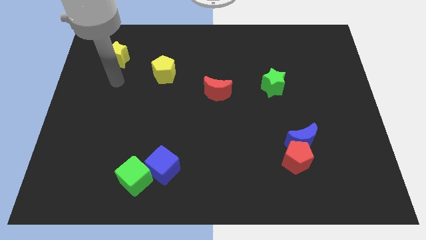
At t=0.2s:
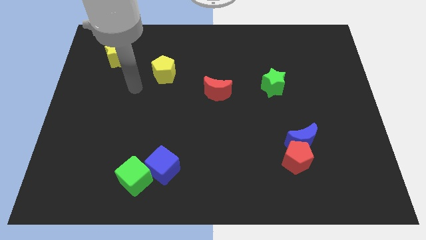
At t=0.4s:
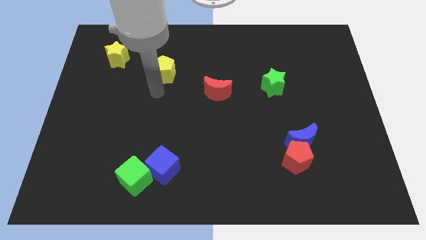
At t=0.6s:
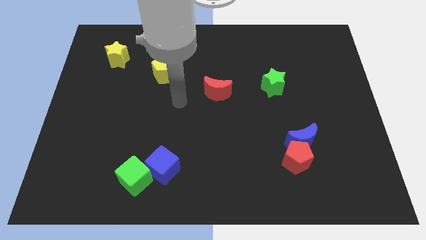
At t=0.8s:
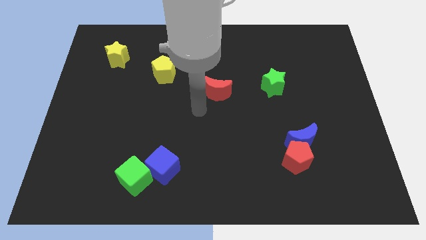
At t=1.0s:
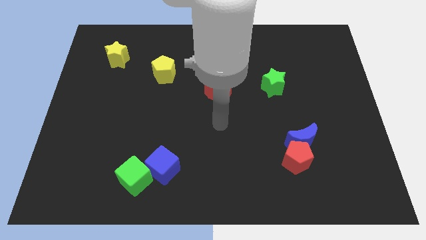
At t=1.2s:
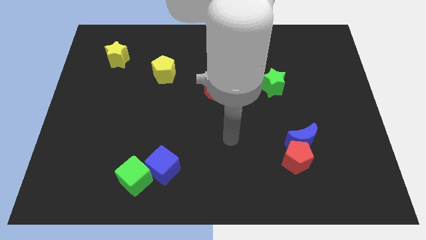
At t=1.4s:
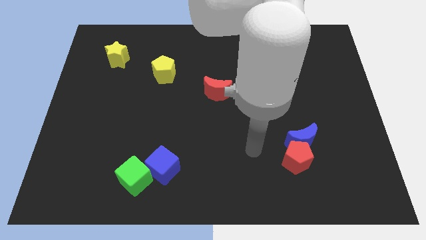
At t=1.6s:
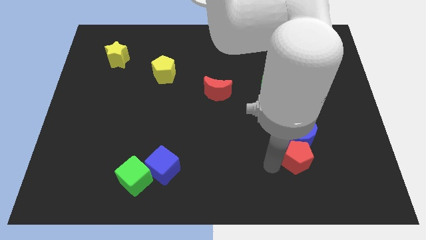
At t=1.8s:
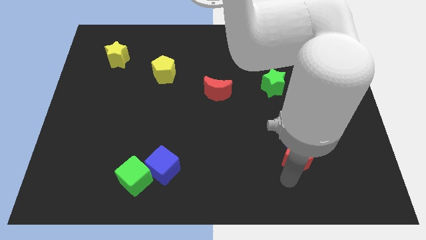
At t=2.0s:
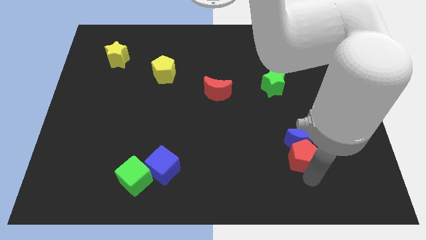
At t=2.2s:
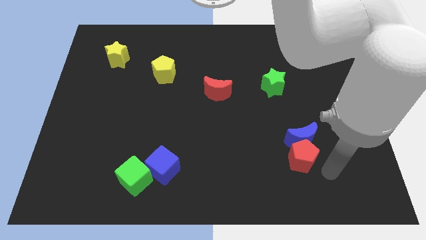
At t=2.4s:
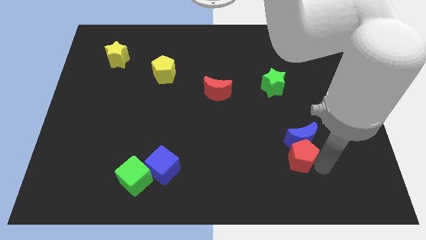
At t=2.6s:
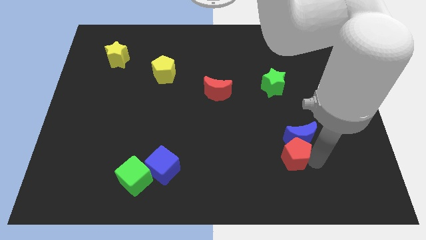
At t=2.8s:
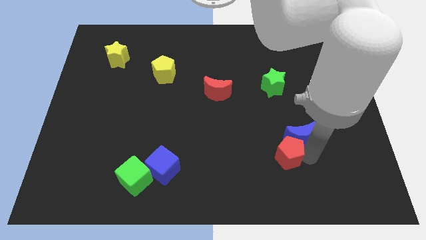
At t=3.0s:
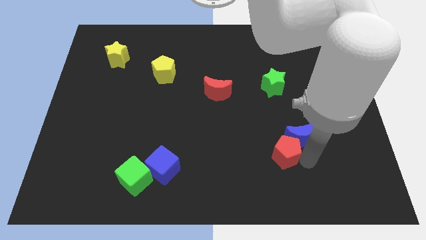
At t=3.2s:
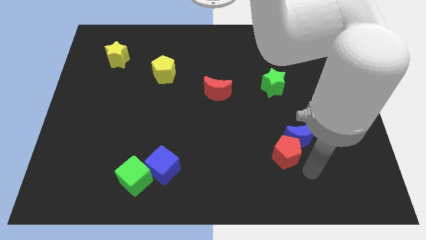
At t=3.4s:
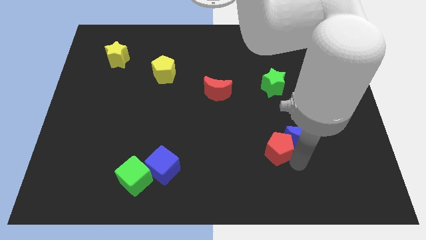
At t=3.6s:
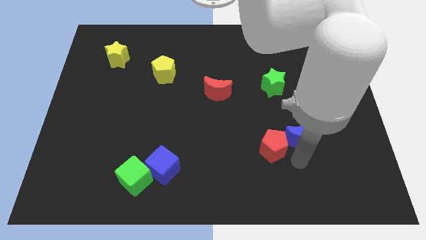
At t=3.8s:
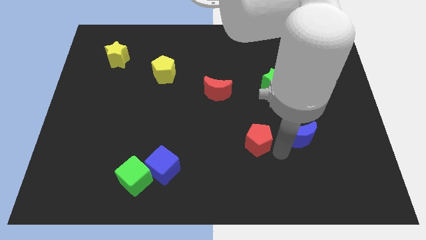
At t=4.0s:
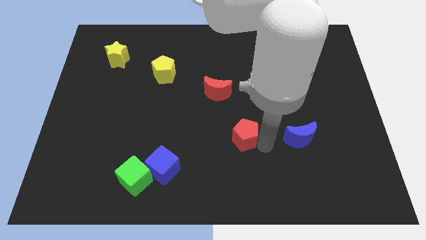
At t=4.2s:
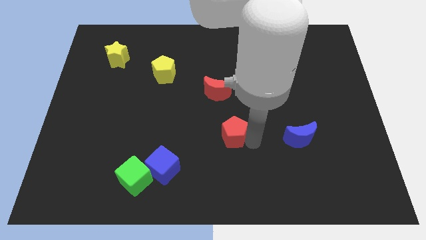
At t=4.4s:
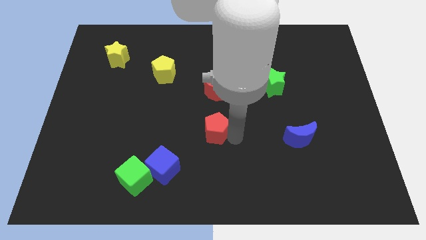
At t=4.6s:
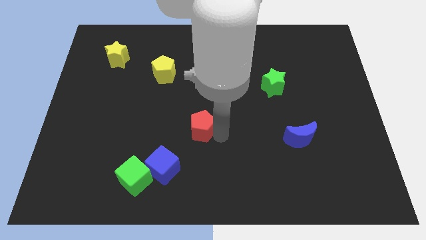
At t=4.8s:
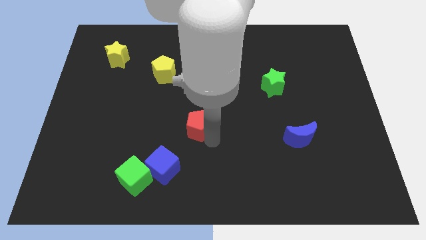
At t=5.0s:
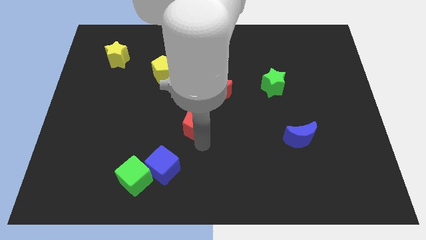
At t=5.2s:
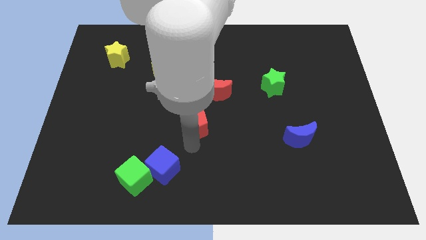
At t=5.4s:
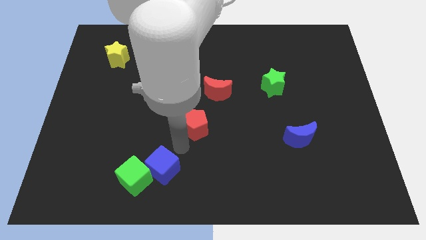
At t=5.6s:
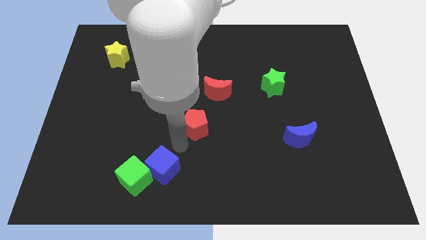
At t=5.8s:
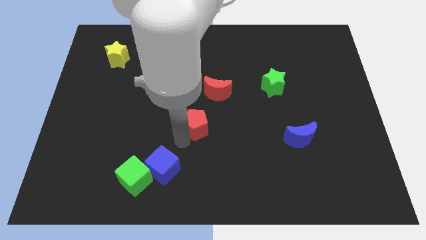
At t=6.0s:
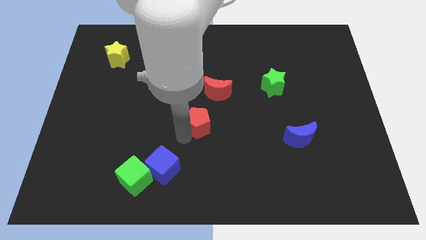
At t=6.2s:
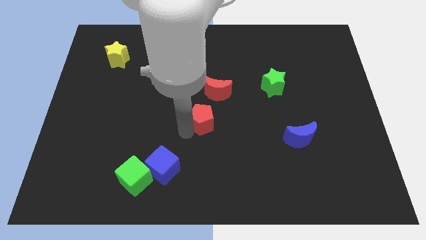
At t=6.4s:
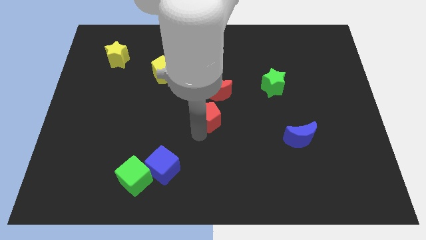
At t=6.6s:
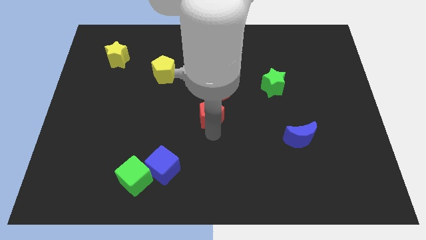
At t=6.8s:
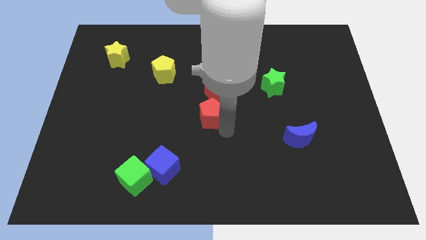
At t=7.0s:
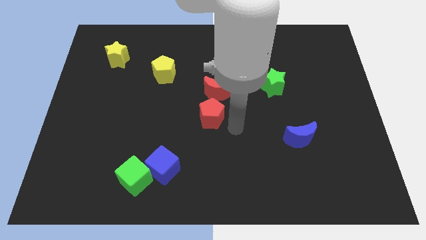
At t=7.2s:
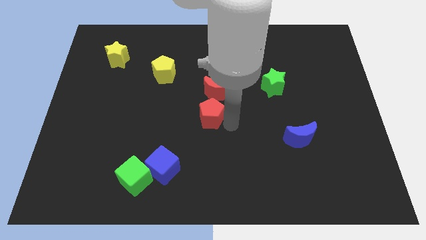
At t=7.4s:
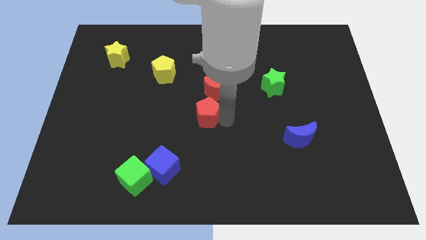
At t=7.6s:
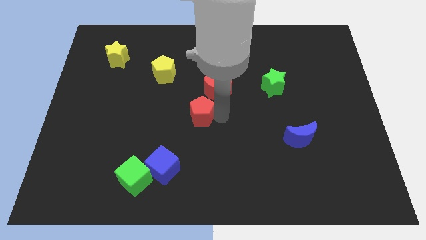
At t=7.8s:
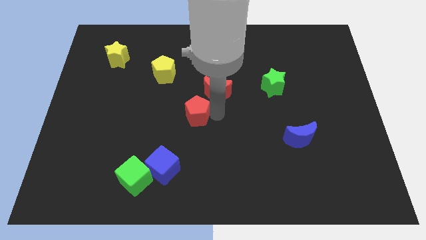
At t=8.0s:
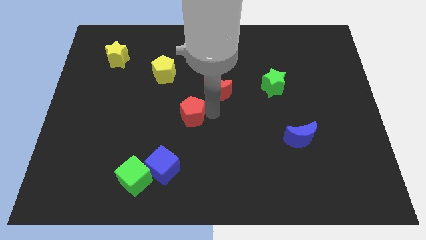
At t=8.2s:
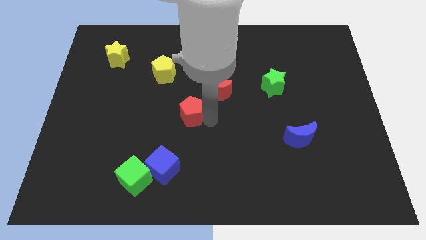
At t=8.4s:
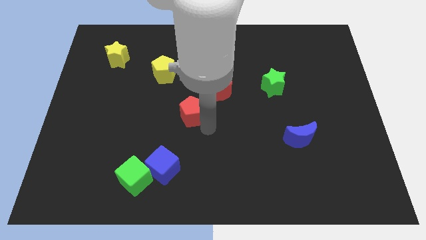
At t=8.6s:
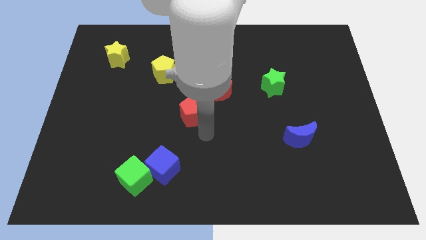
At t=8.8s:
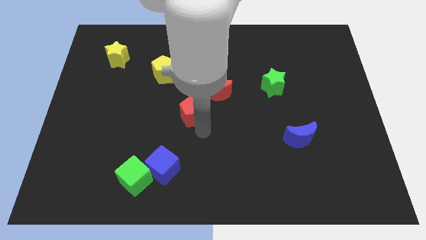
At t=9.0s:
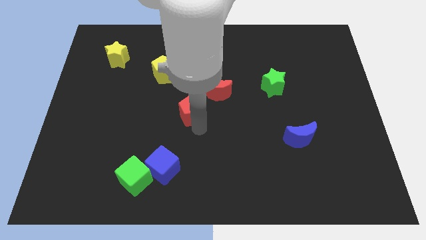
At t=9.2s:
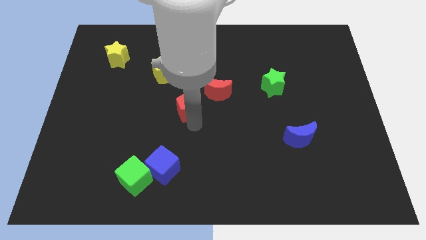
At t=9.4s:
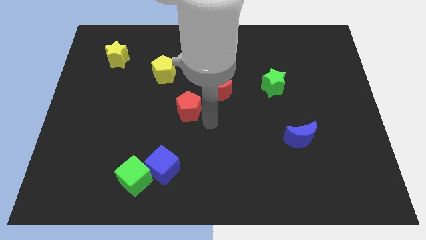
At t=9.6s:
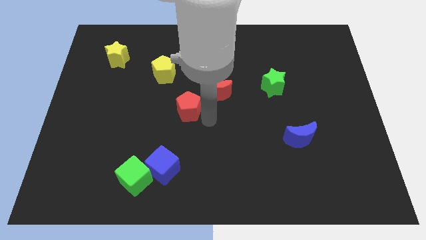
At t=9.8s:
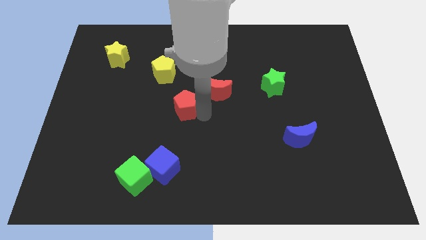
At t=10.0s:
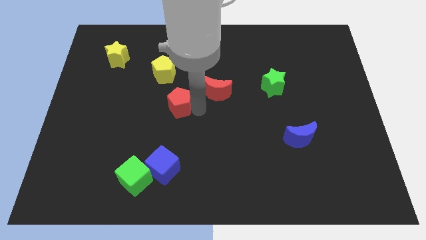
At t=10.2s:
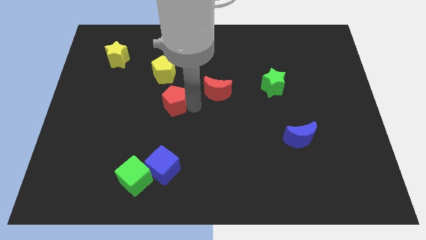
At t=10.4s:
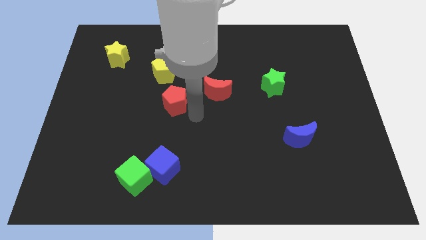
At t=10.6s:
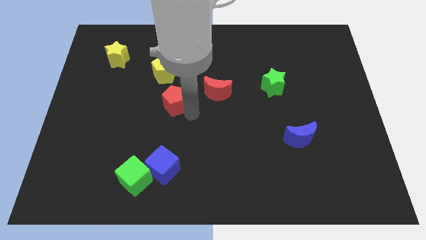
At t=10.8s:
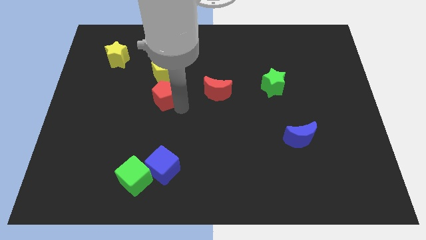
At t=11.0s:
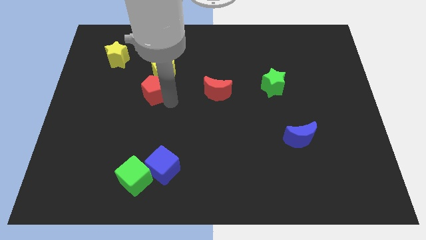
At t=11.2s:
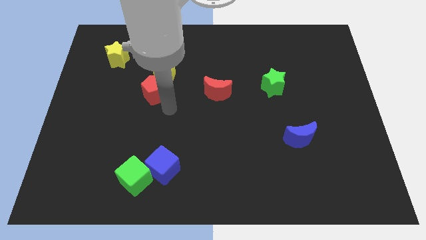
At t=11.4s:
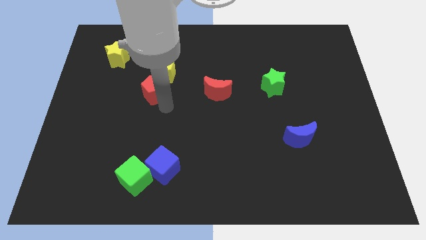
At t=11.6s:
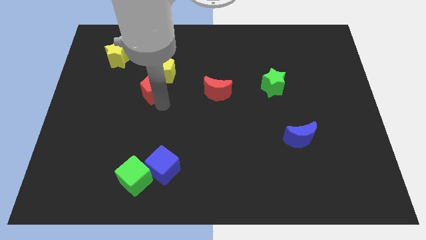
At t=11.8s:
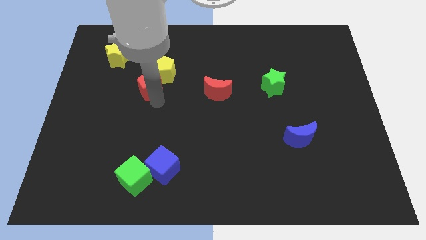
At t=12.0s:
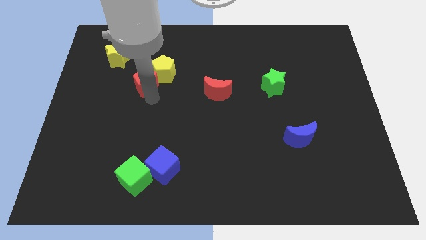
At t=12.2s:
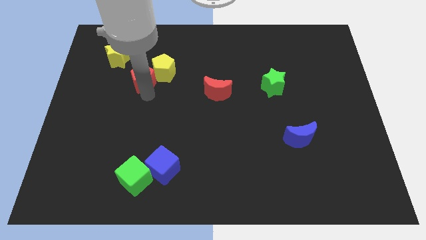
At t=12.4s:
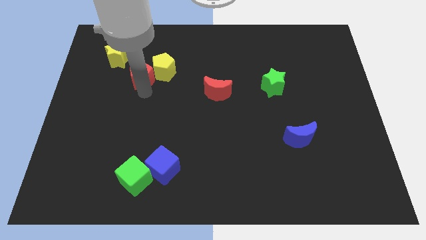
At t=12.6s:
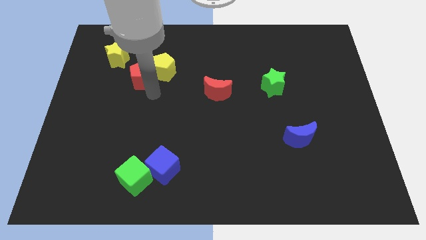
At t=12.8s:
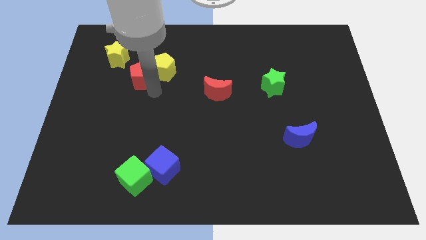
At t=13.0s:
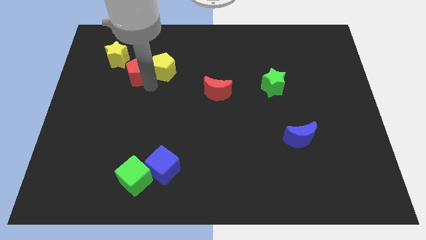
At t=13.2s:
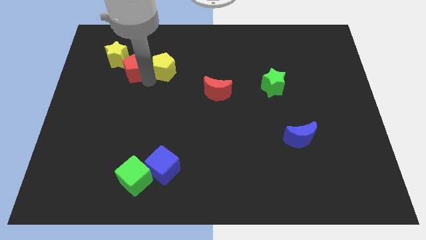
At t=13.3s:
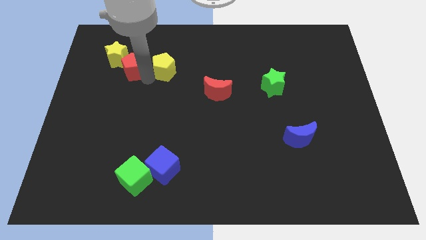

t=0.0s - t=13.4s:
move the red pentagon towards the yellow star

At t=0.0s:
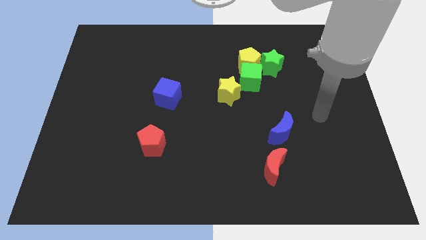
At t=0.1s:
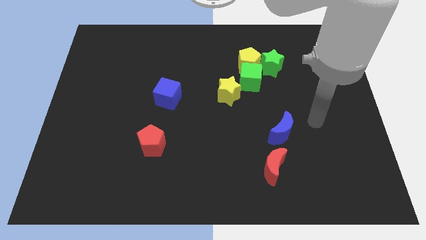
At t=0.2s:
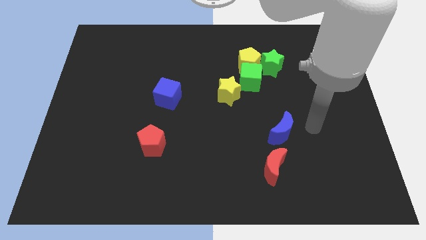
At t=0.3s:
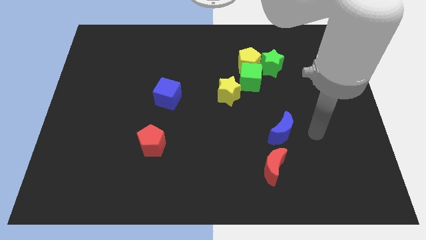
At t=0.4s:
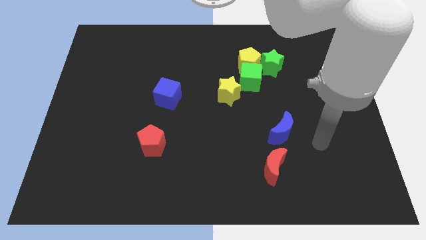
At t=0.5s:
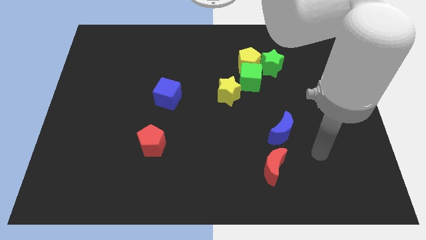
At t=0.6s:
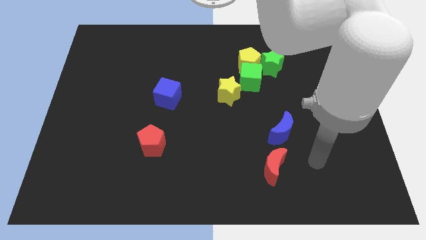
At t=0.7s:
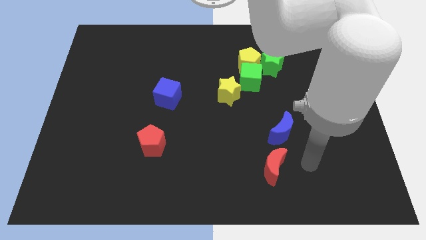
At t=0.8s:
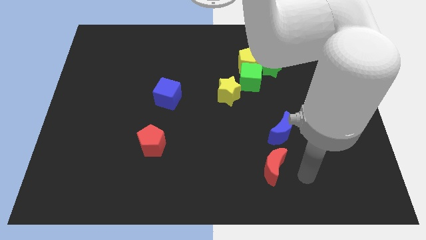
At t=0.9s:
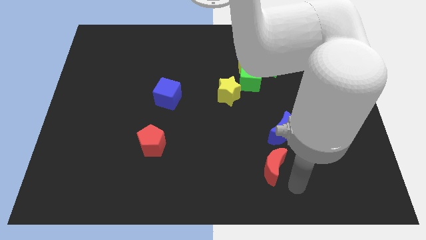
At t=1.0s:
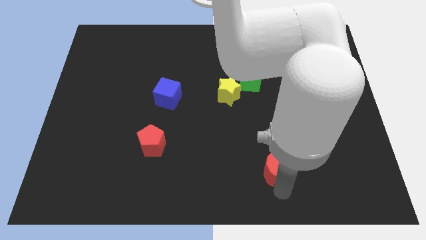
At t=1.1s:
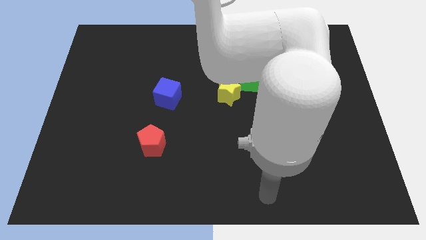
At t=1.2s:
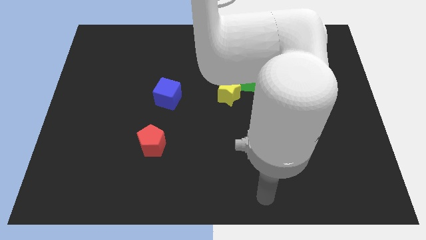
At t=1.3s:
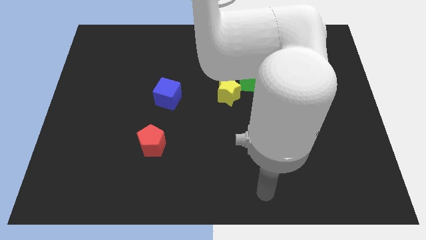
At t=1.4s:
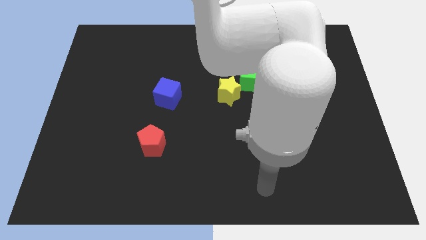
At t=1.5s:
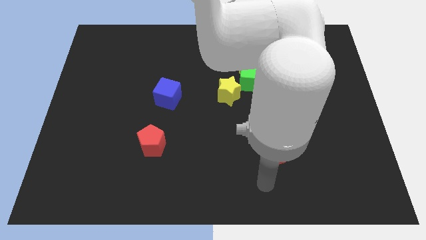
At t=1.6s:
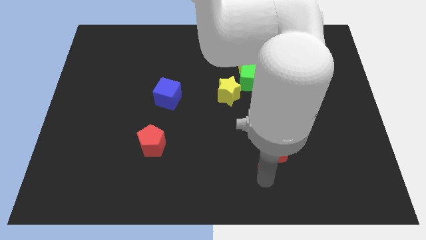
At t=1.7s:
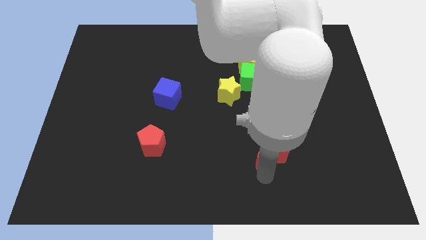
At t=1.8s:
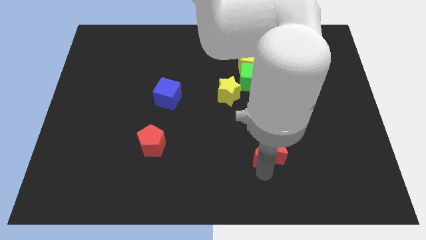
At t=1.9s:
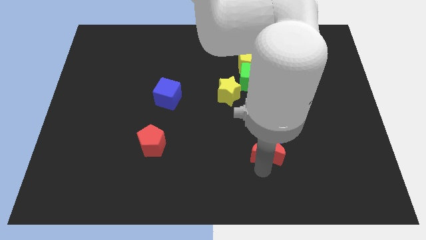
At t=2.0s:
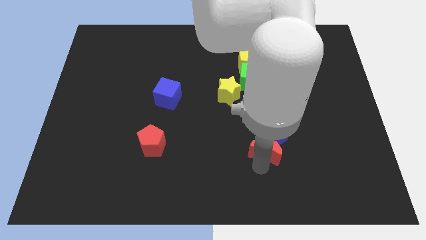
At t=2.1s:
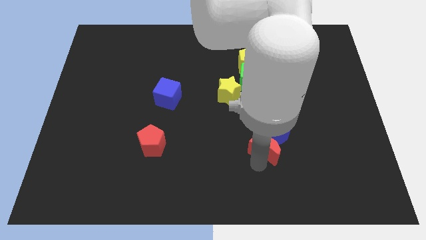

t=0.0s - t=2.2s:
push the red moon towards the blue moon
